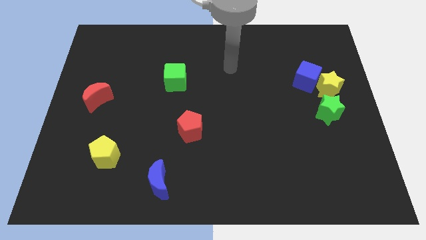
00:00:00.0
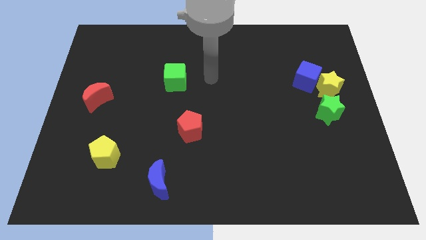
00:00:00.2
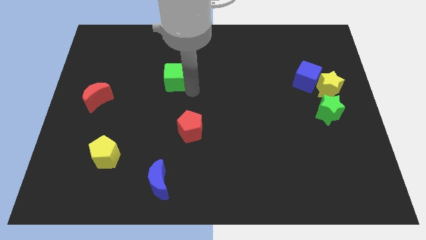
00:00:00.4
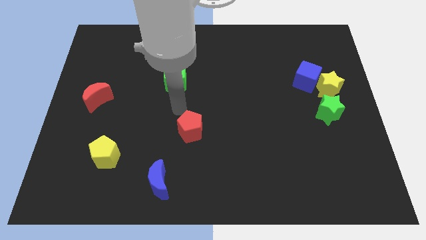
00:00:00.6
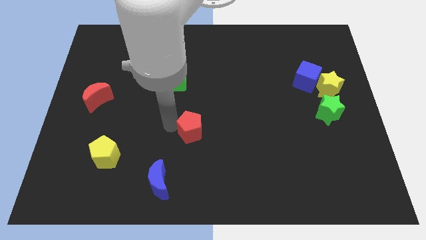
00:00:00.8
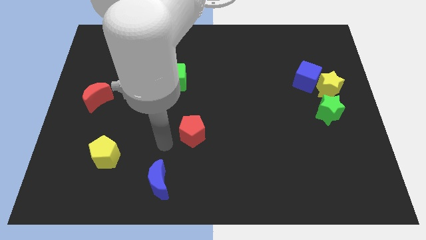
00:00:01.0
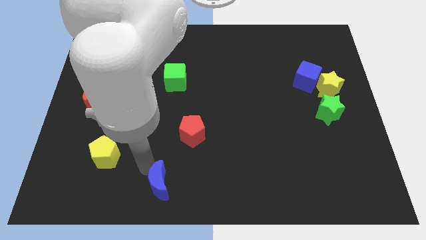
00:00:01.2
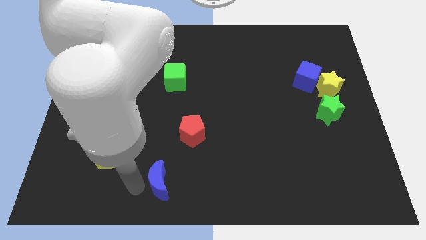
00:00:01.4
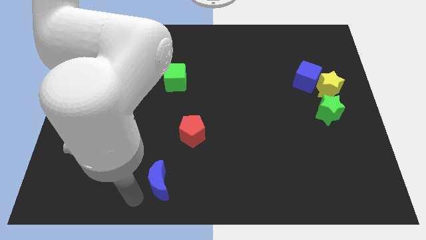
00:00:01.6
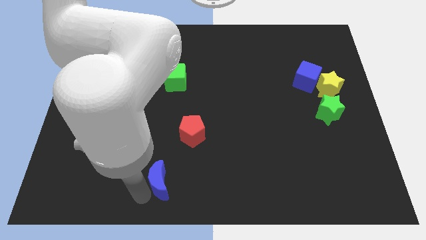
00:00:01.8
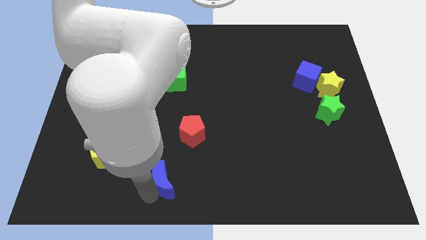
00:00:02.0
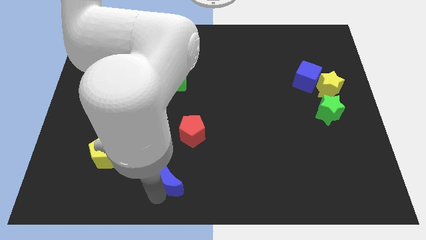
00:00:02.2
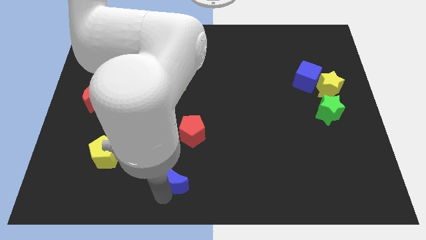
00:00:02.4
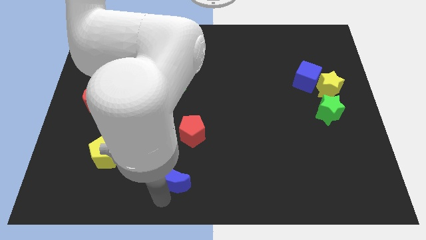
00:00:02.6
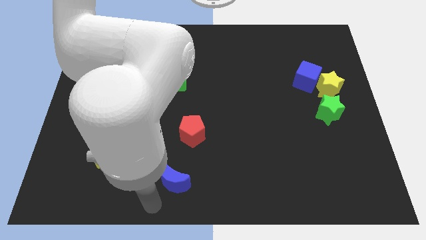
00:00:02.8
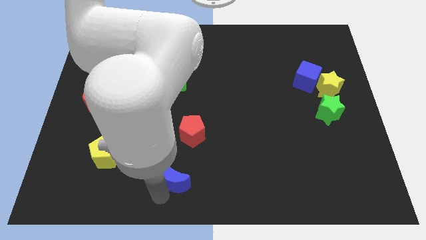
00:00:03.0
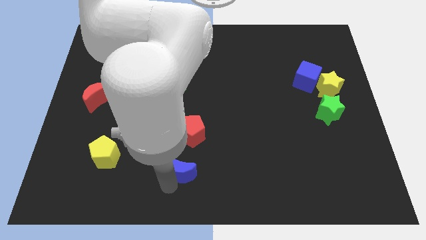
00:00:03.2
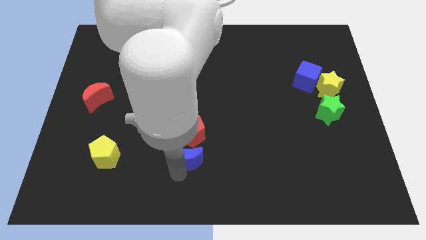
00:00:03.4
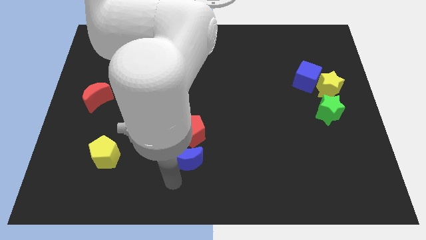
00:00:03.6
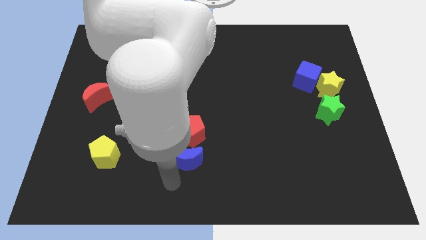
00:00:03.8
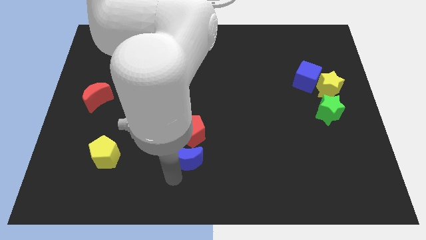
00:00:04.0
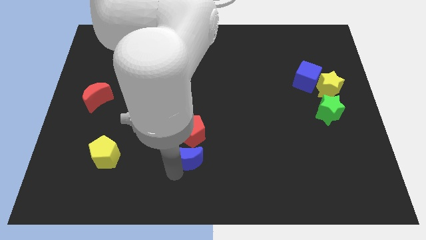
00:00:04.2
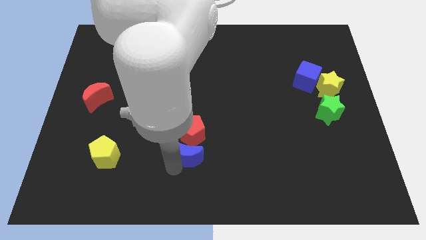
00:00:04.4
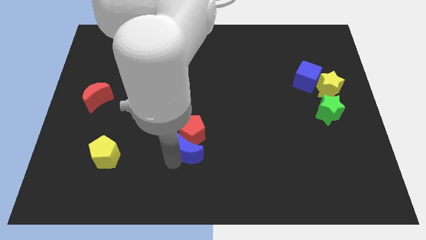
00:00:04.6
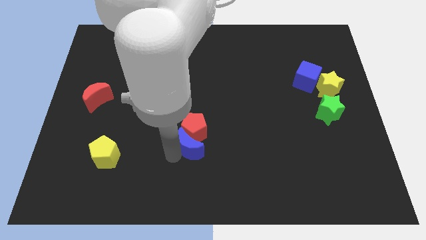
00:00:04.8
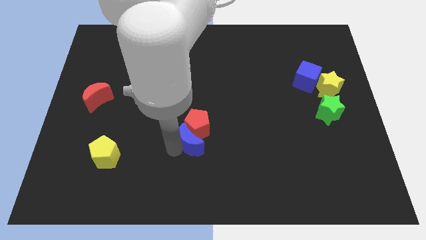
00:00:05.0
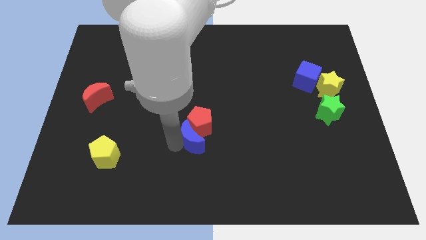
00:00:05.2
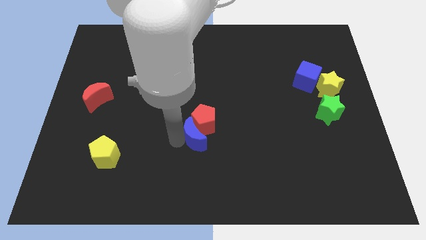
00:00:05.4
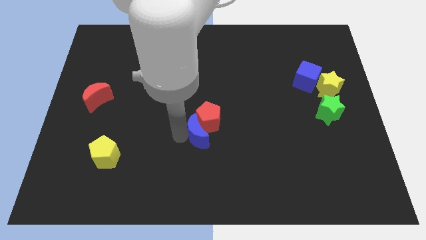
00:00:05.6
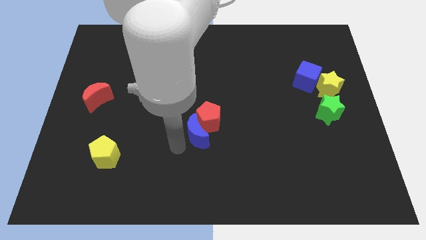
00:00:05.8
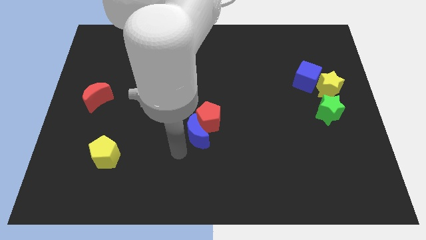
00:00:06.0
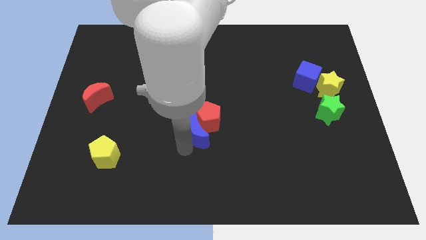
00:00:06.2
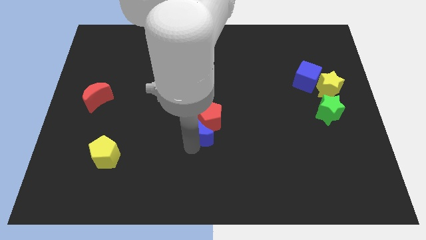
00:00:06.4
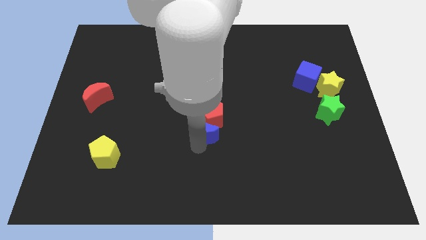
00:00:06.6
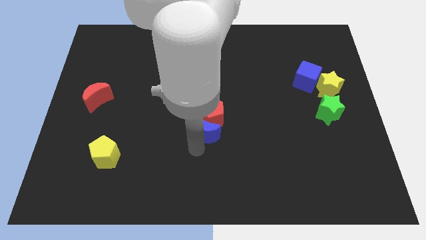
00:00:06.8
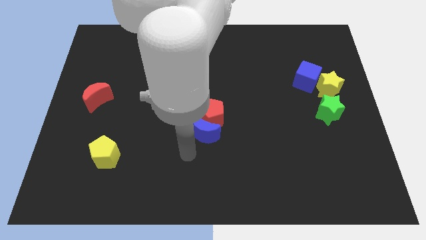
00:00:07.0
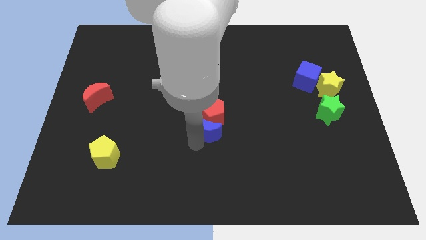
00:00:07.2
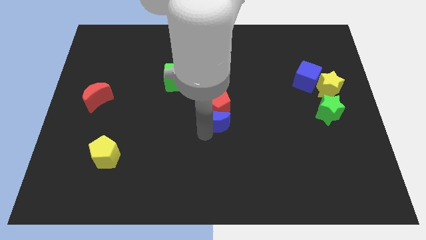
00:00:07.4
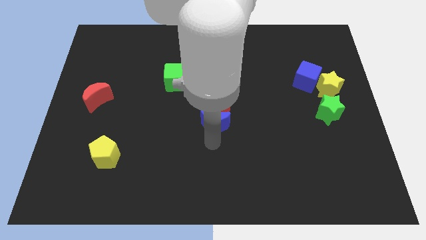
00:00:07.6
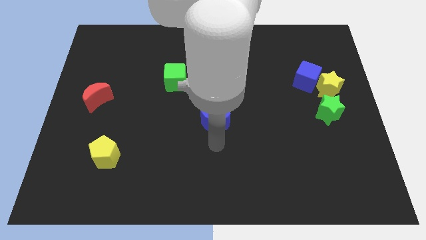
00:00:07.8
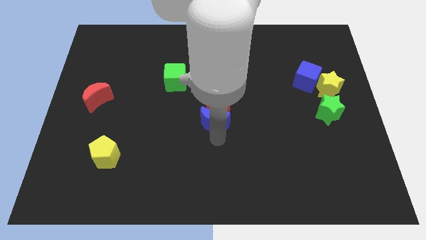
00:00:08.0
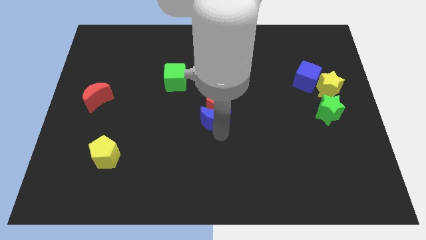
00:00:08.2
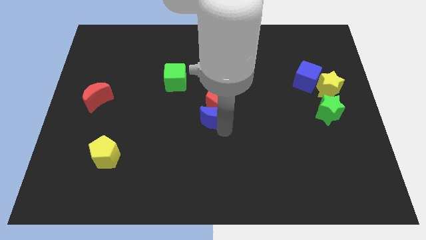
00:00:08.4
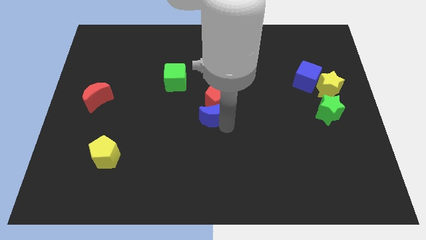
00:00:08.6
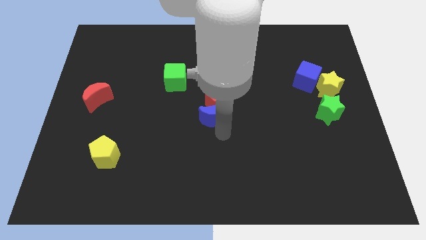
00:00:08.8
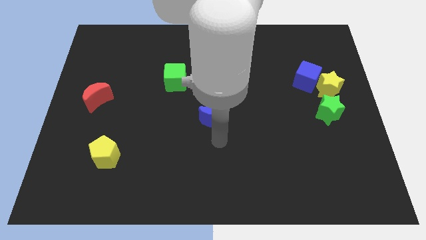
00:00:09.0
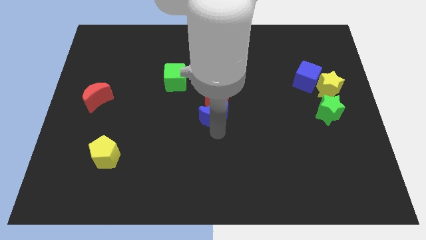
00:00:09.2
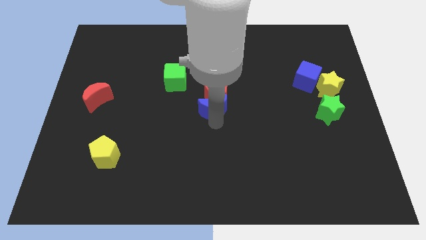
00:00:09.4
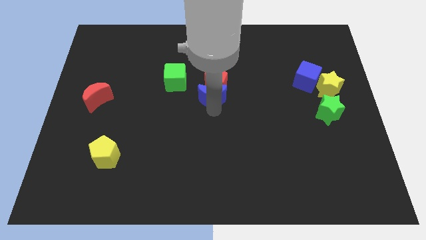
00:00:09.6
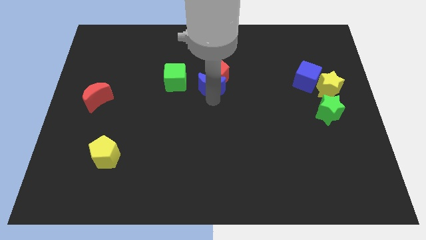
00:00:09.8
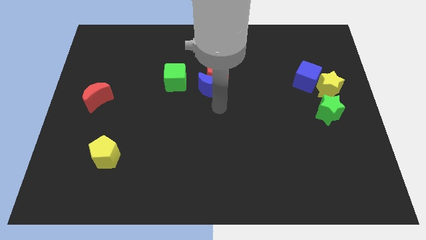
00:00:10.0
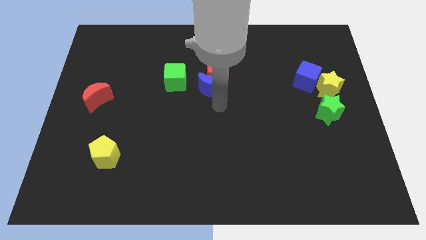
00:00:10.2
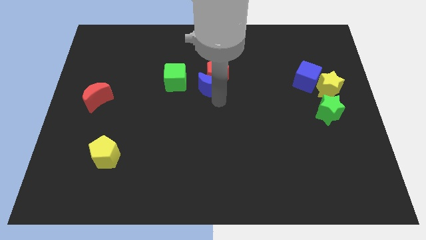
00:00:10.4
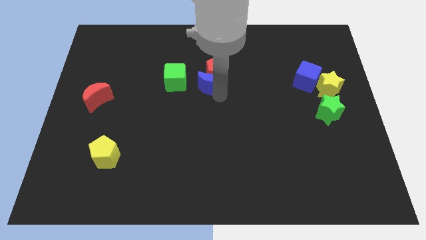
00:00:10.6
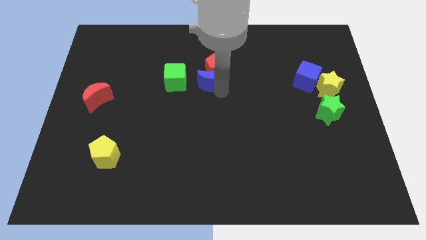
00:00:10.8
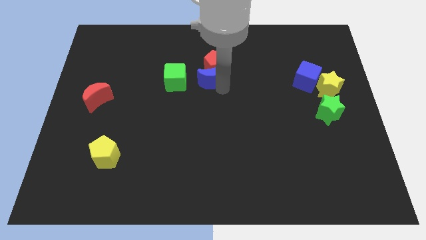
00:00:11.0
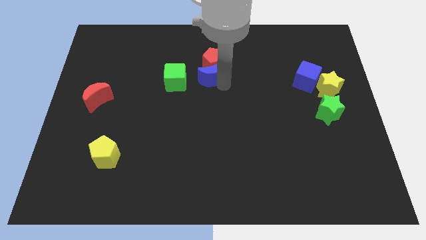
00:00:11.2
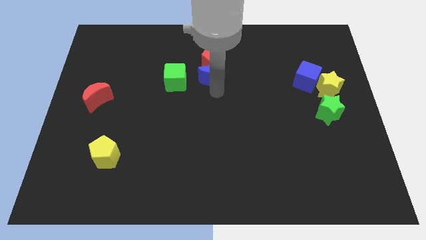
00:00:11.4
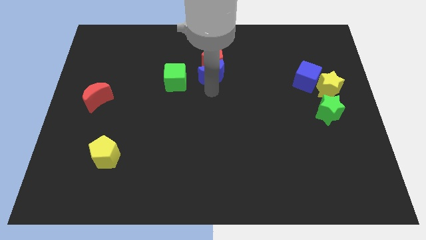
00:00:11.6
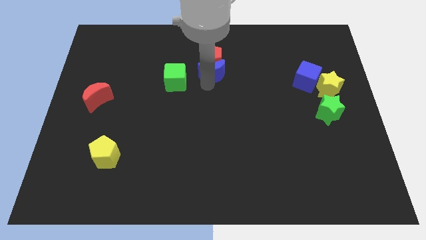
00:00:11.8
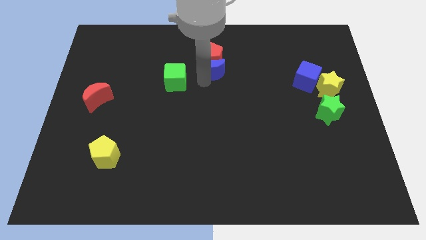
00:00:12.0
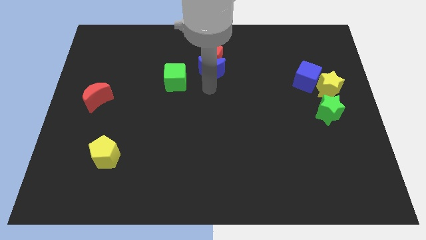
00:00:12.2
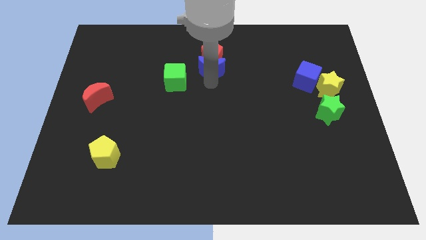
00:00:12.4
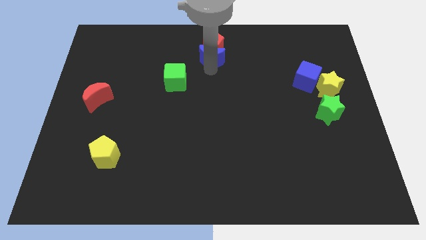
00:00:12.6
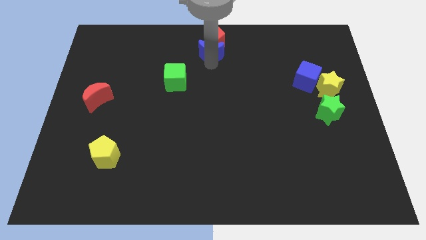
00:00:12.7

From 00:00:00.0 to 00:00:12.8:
put the blue moon to the top
